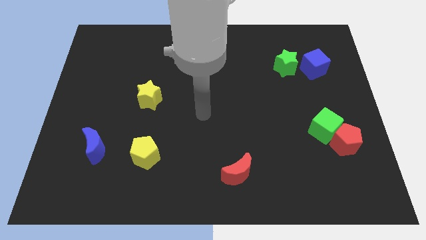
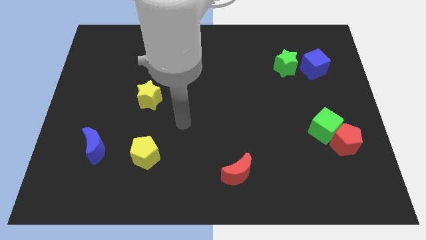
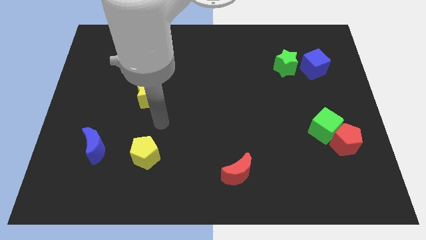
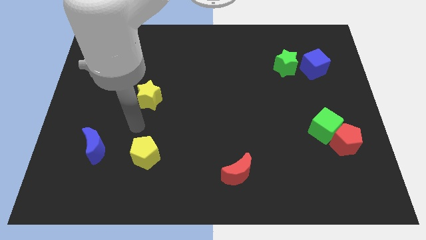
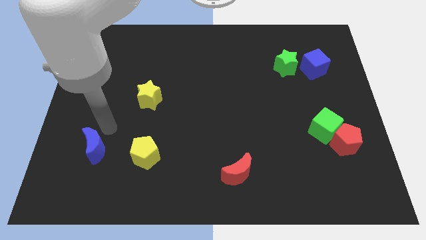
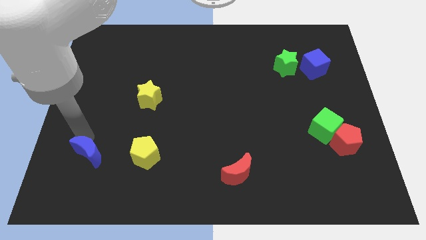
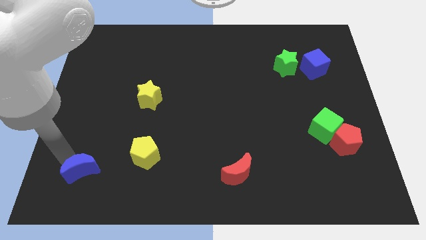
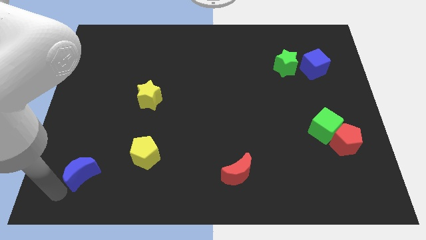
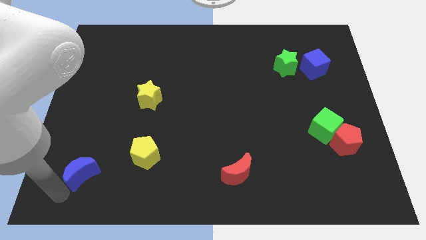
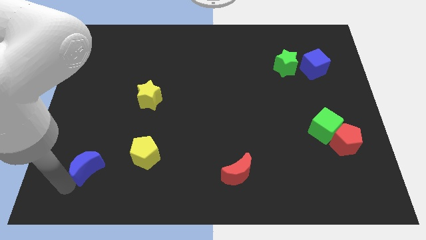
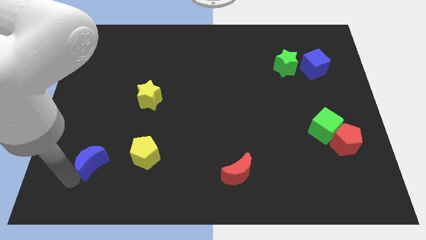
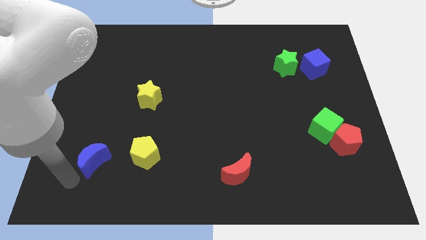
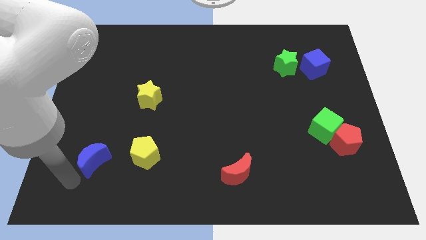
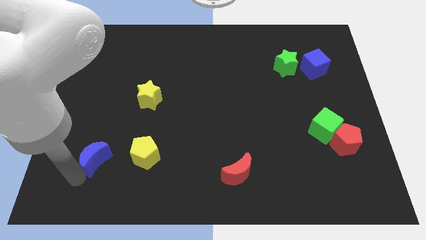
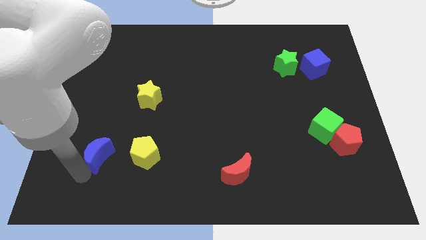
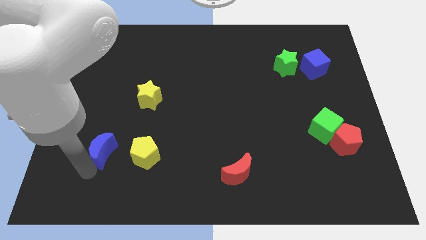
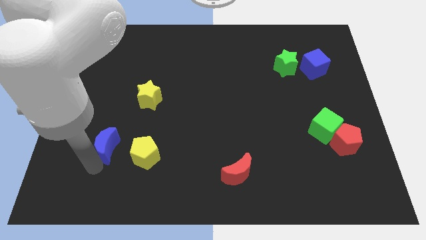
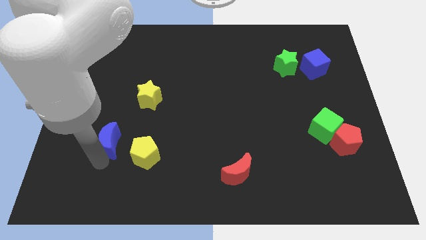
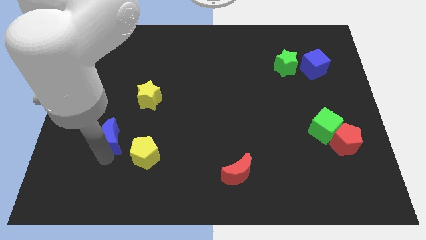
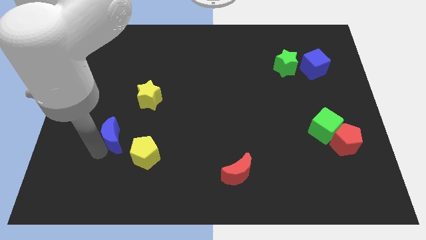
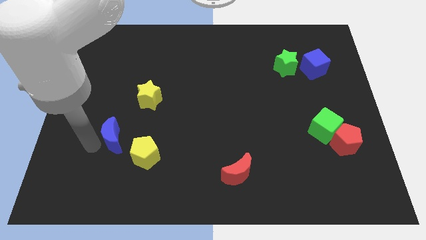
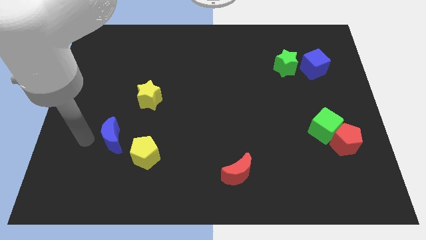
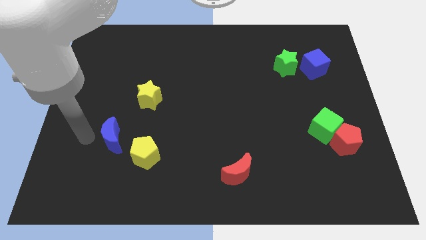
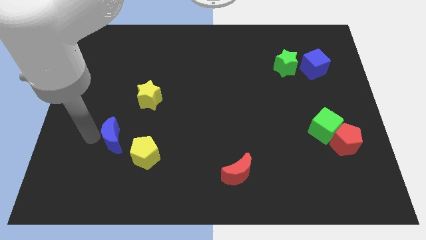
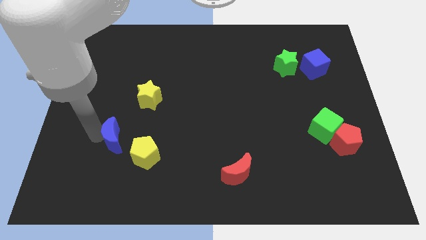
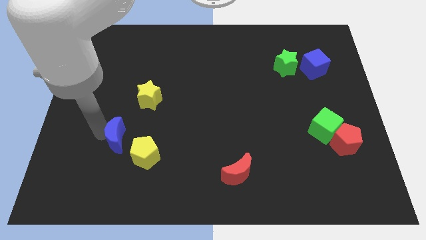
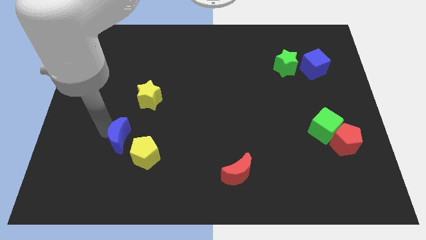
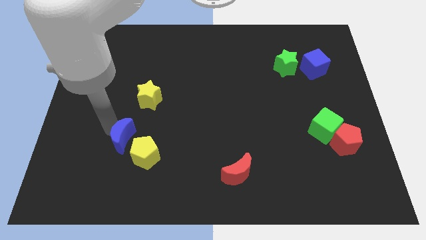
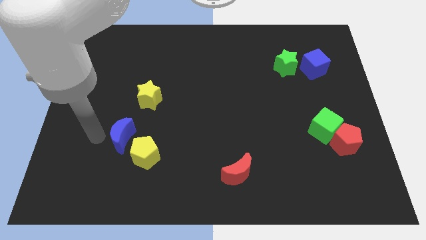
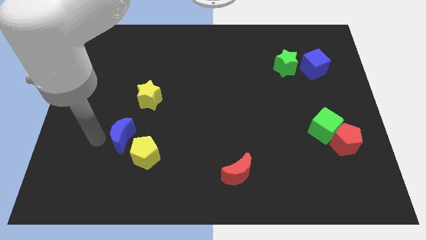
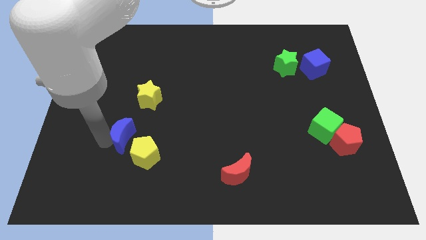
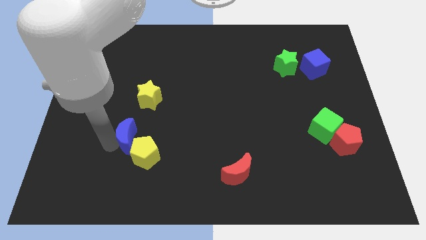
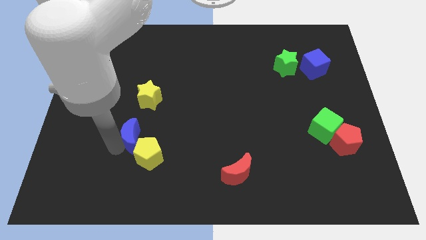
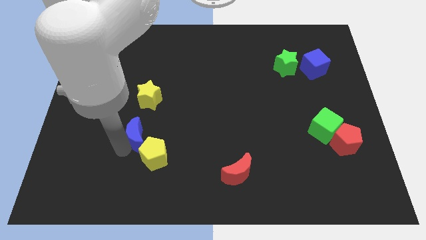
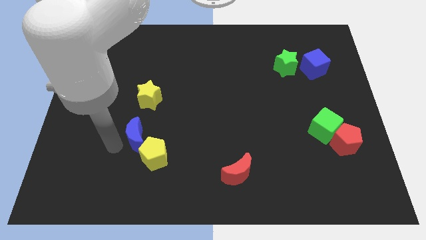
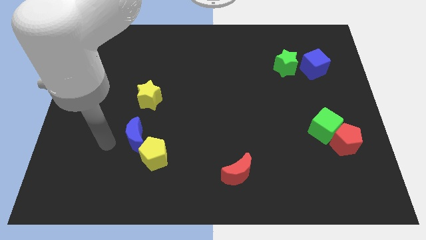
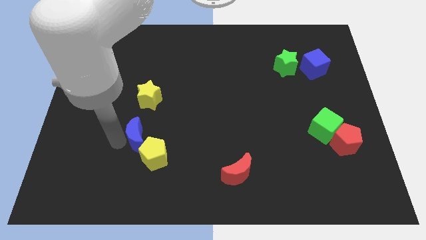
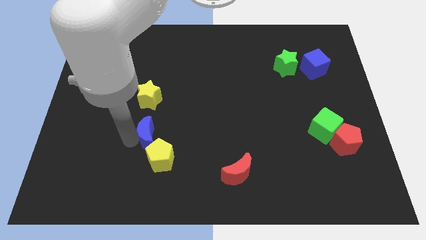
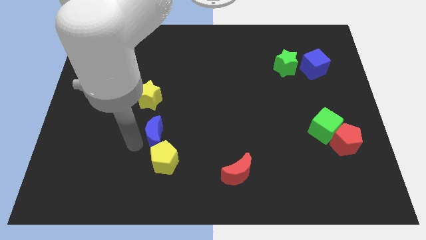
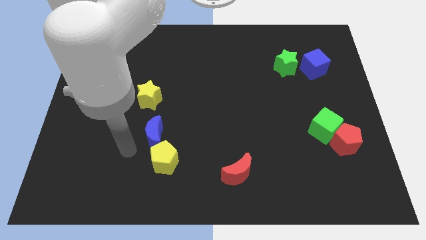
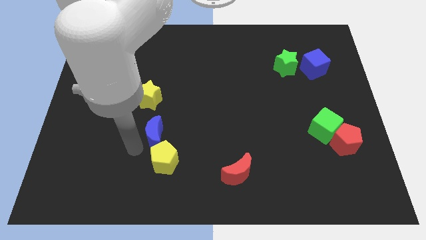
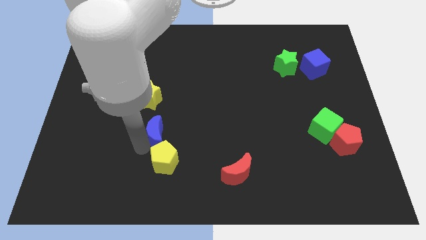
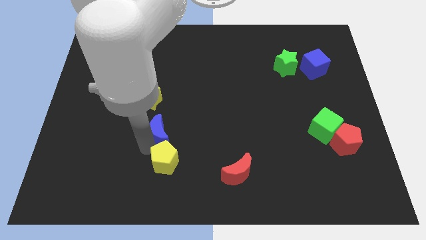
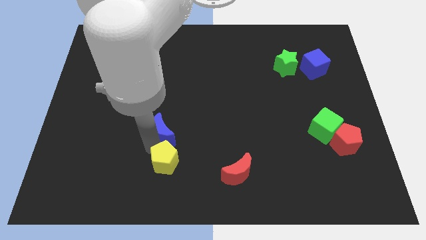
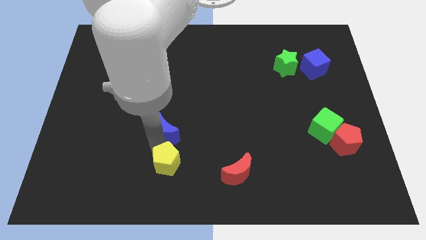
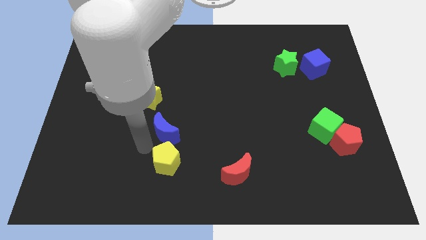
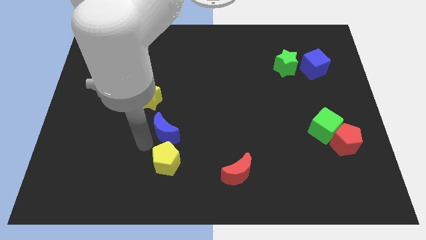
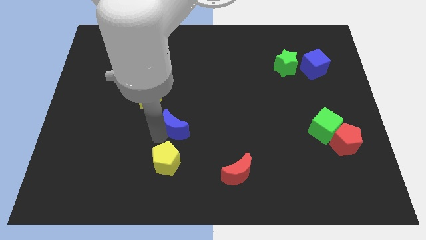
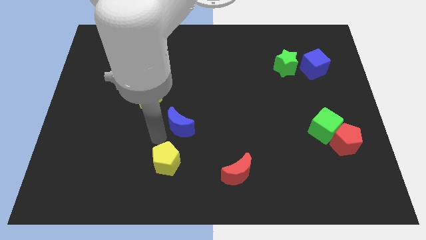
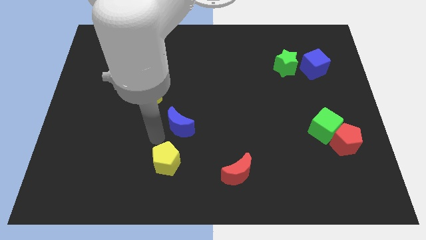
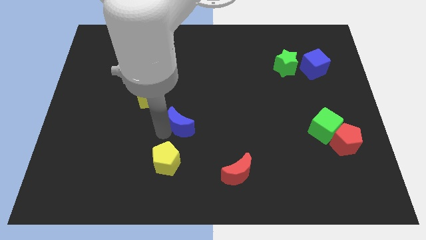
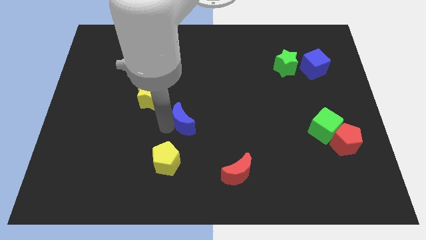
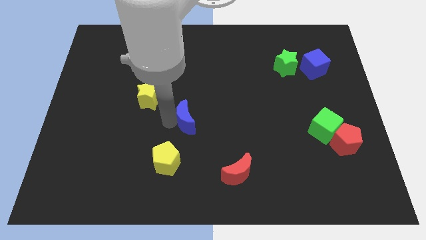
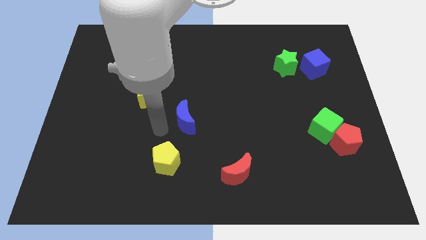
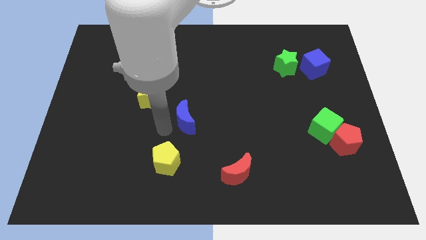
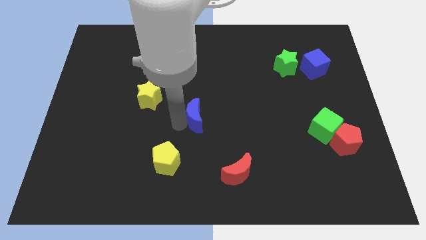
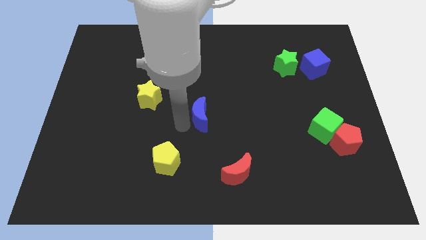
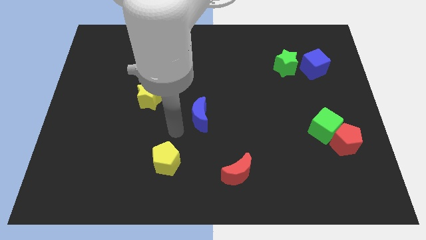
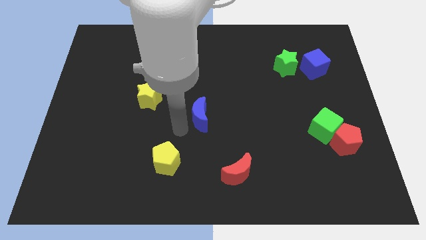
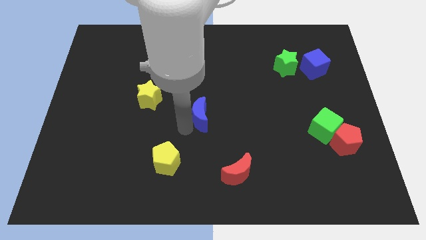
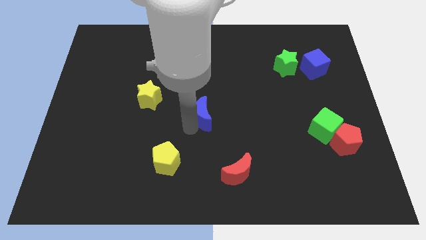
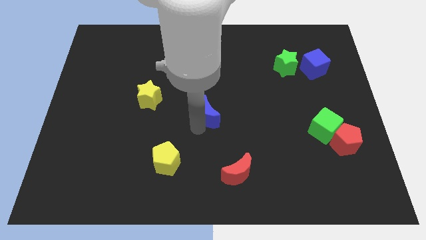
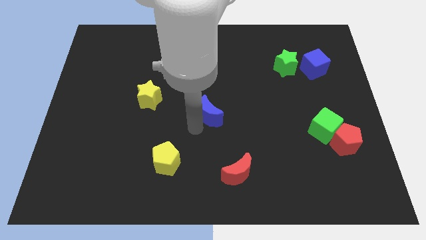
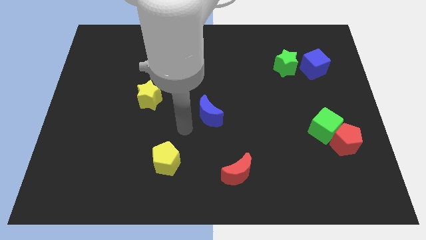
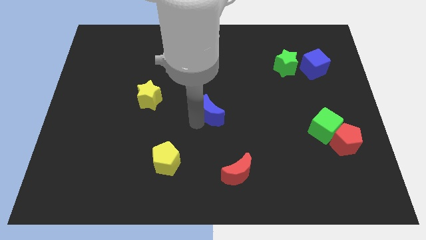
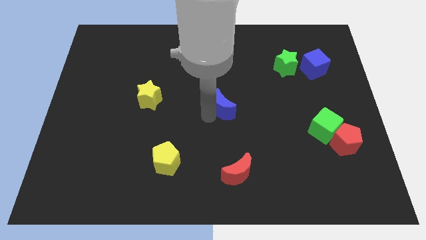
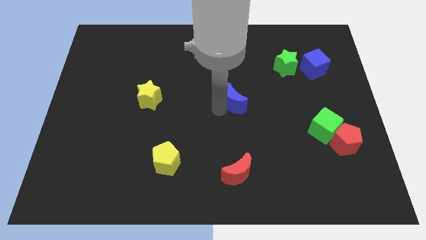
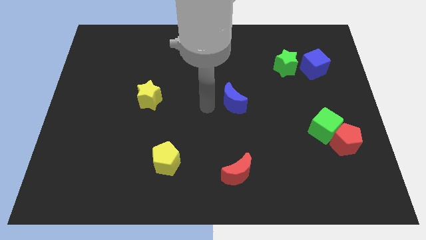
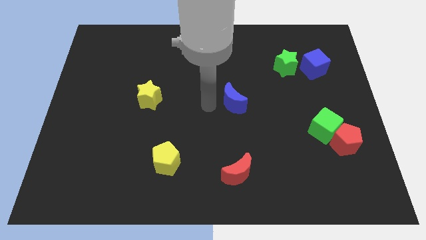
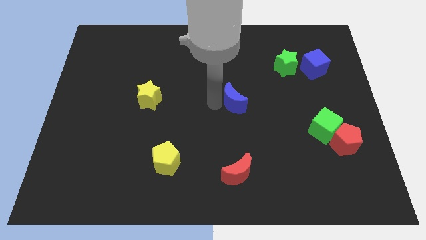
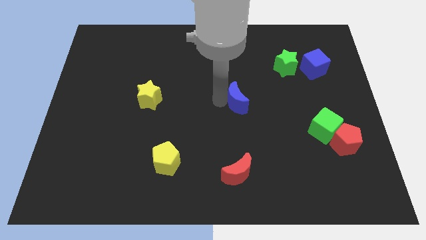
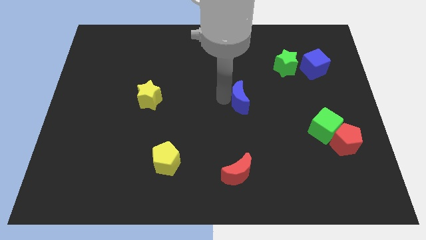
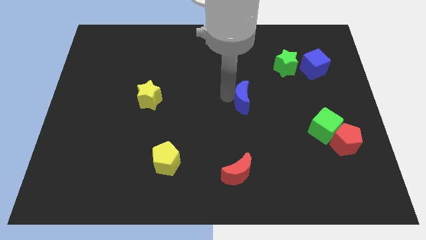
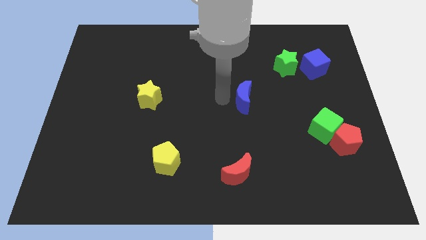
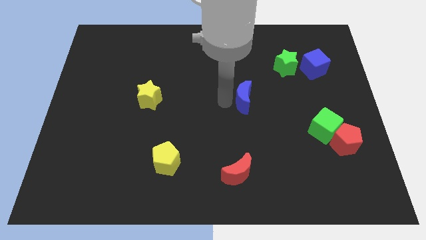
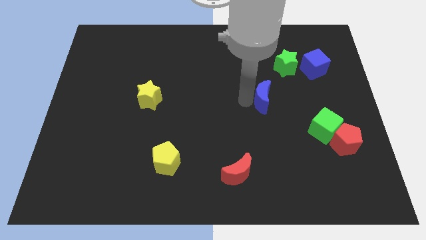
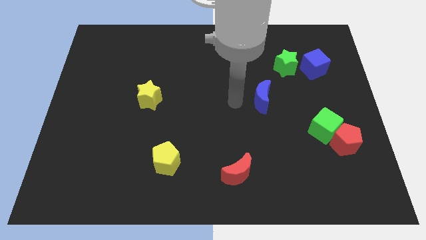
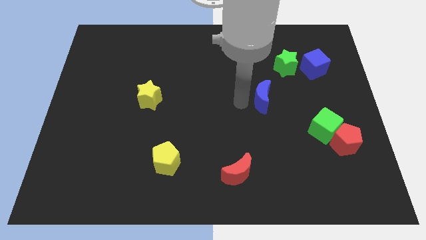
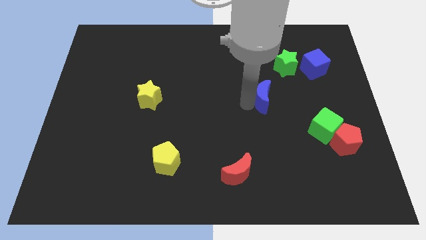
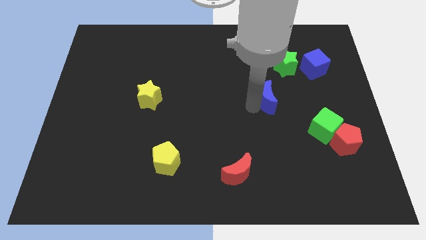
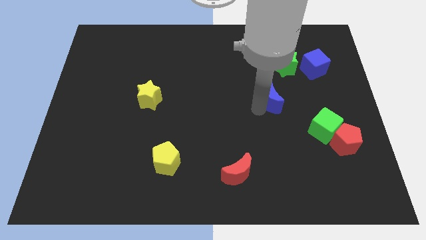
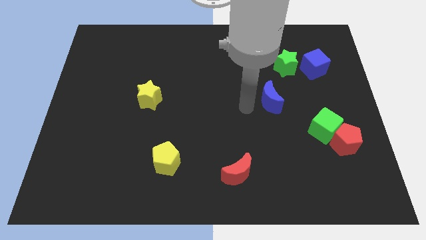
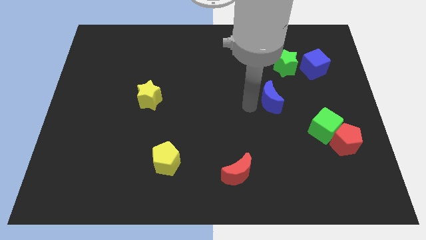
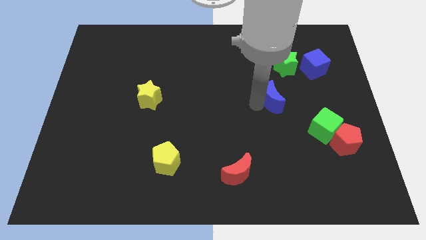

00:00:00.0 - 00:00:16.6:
push the blue moon below the green star
